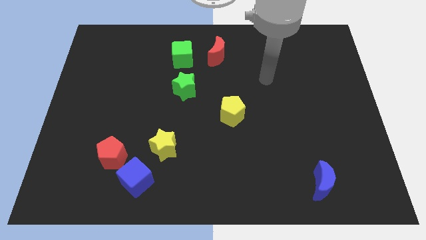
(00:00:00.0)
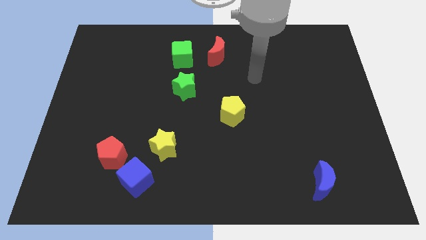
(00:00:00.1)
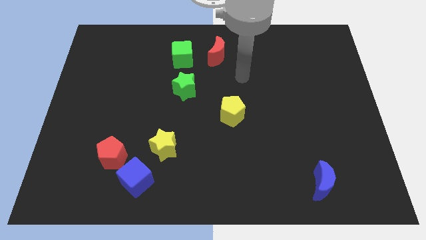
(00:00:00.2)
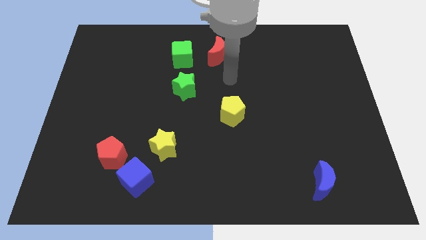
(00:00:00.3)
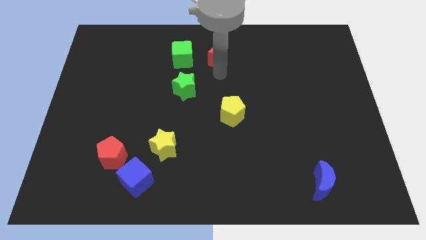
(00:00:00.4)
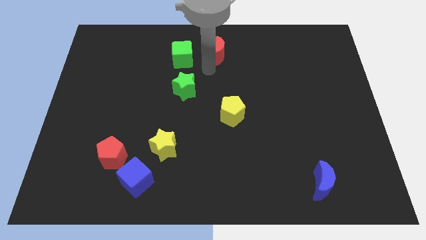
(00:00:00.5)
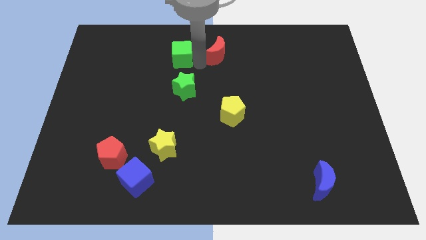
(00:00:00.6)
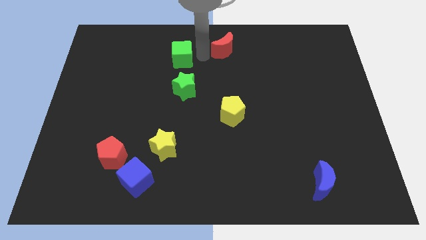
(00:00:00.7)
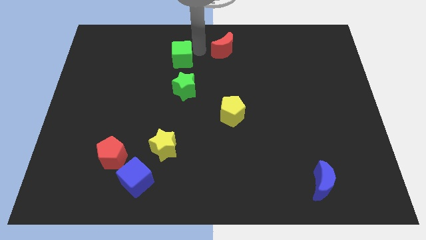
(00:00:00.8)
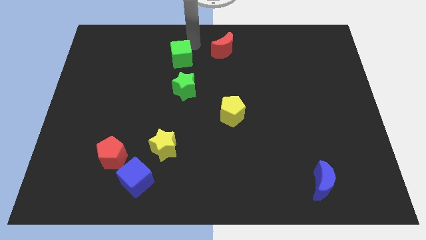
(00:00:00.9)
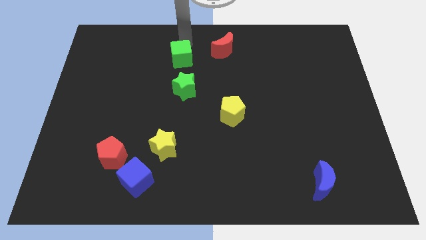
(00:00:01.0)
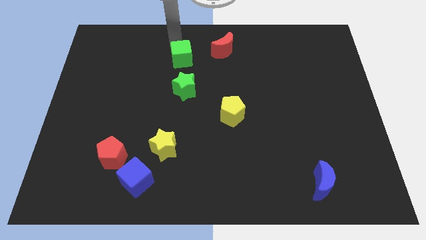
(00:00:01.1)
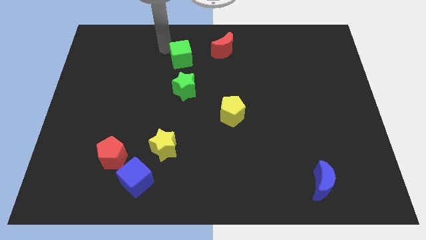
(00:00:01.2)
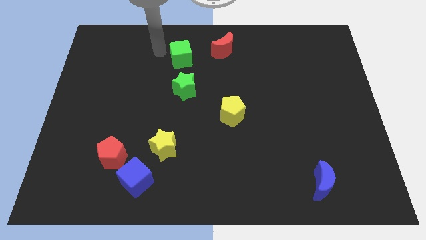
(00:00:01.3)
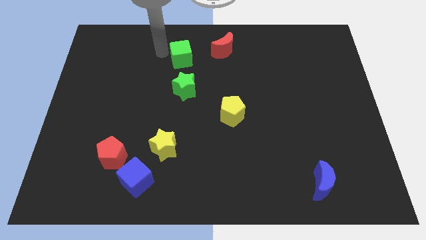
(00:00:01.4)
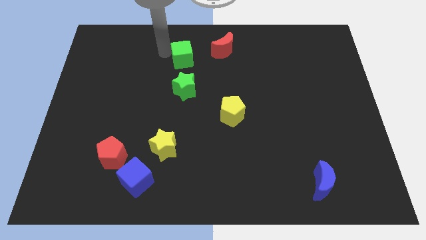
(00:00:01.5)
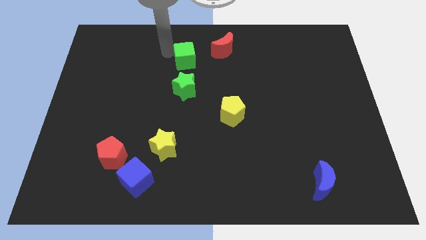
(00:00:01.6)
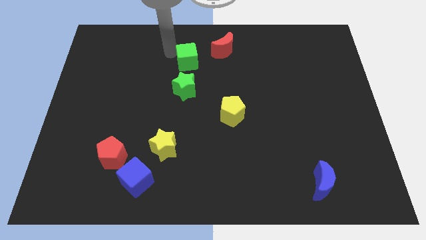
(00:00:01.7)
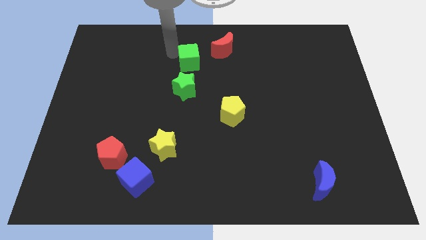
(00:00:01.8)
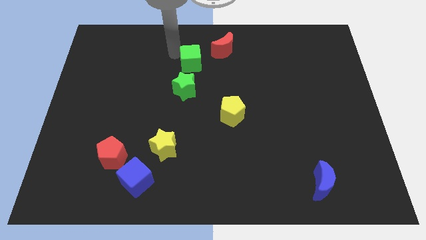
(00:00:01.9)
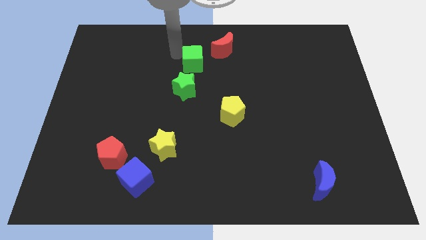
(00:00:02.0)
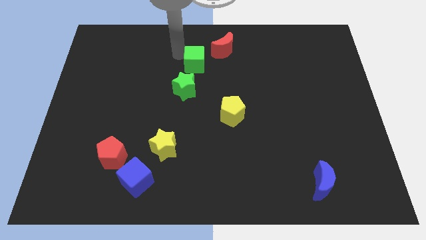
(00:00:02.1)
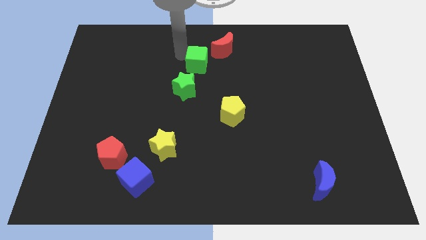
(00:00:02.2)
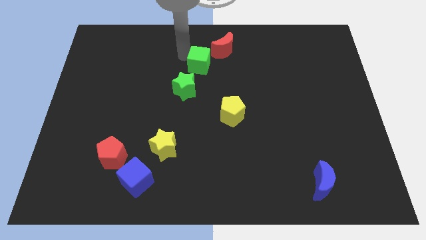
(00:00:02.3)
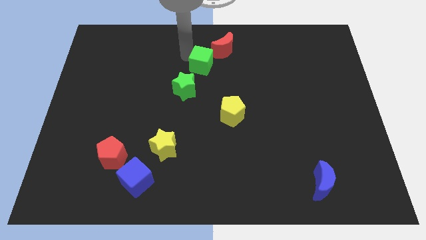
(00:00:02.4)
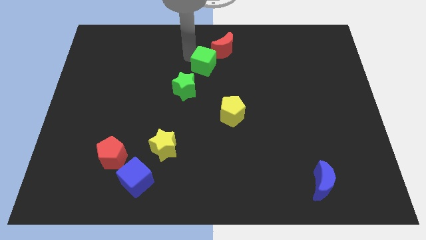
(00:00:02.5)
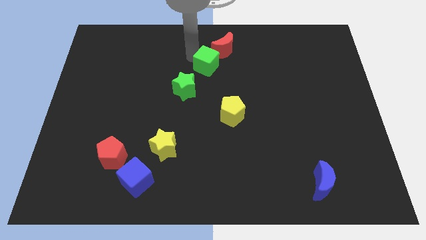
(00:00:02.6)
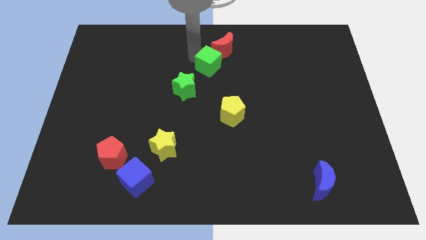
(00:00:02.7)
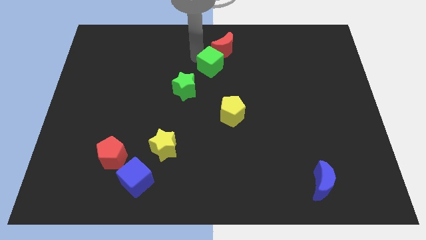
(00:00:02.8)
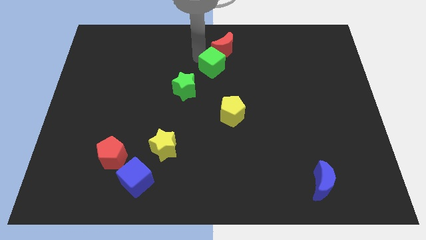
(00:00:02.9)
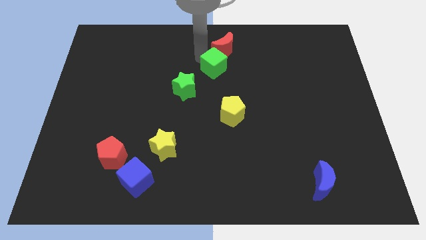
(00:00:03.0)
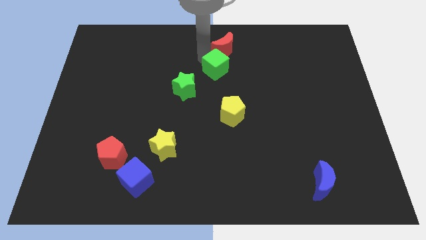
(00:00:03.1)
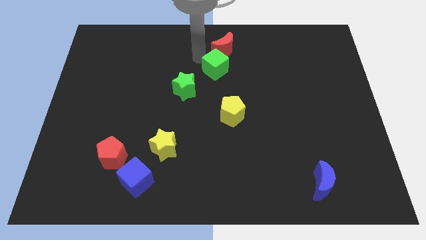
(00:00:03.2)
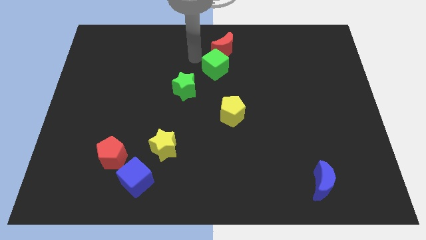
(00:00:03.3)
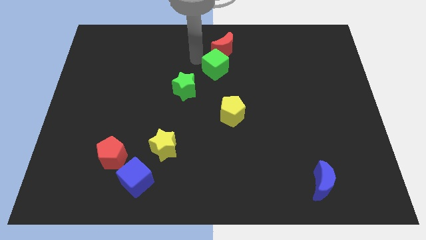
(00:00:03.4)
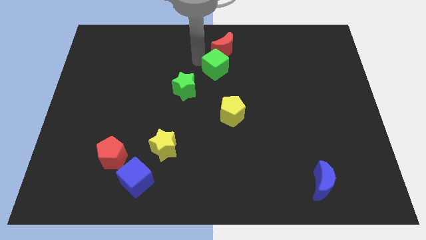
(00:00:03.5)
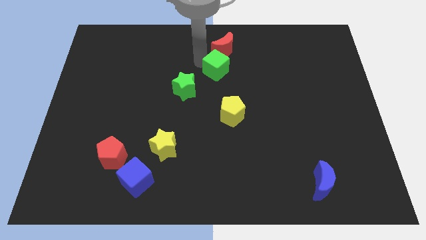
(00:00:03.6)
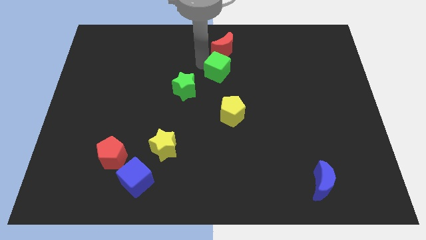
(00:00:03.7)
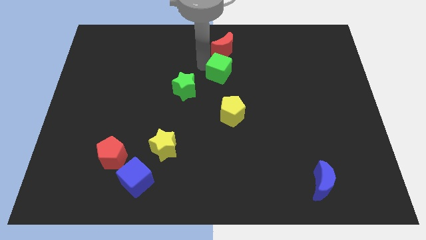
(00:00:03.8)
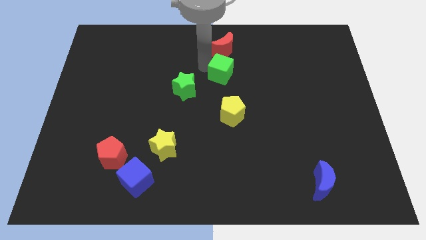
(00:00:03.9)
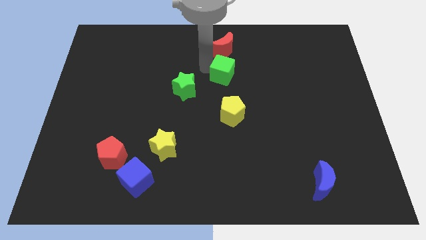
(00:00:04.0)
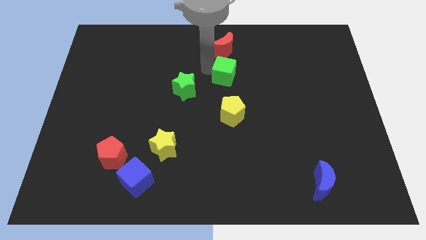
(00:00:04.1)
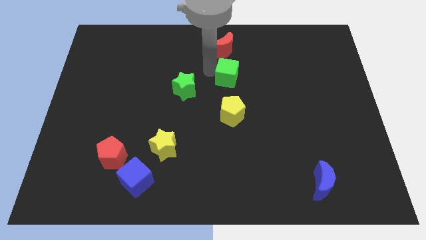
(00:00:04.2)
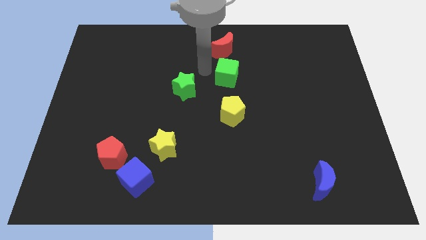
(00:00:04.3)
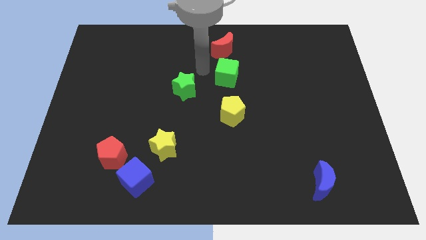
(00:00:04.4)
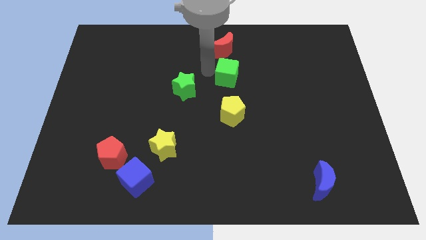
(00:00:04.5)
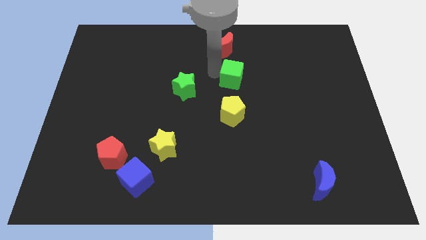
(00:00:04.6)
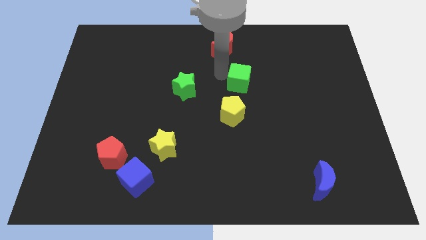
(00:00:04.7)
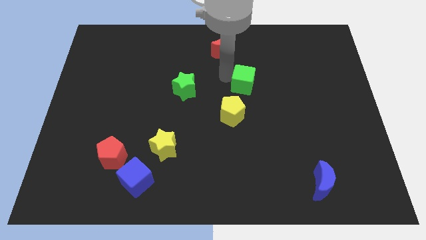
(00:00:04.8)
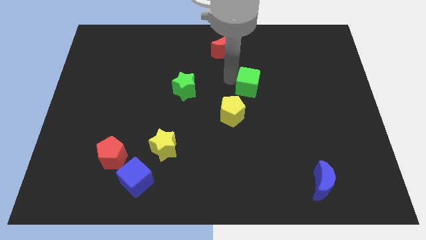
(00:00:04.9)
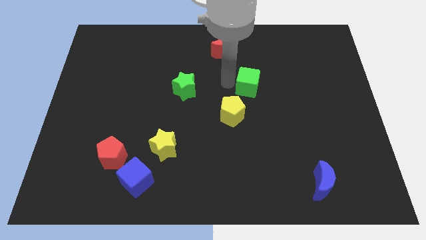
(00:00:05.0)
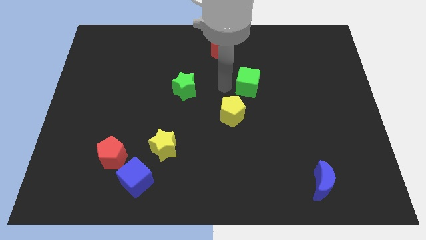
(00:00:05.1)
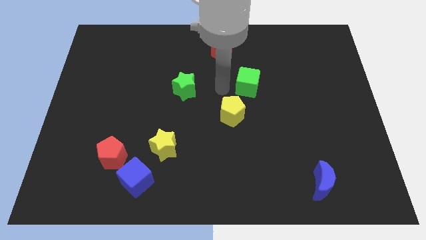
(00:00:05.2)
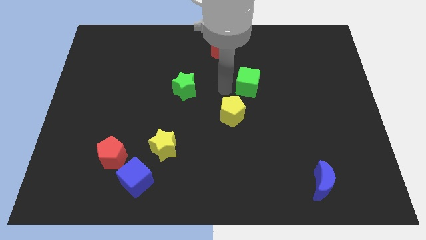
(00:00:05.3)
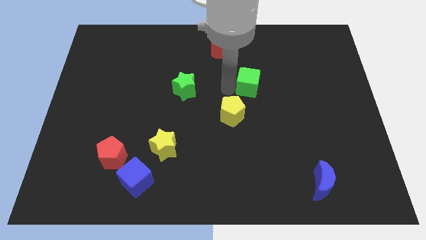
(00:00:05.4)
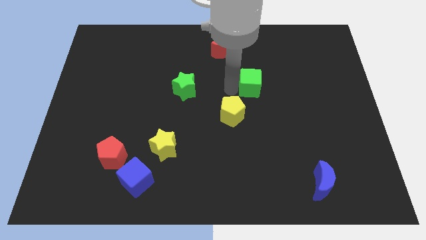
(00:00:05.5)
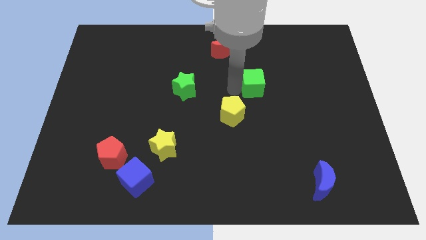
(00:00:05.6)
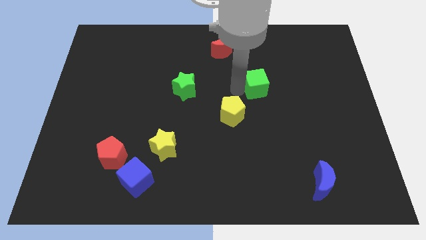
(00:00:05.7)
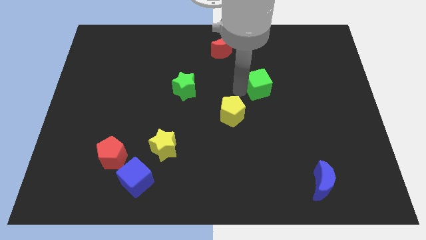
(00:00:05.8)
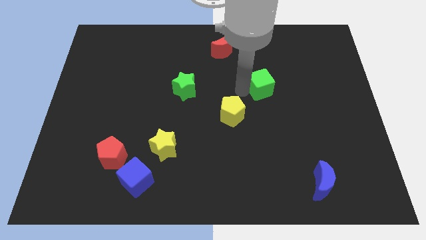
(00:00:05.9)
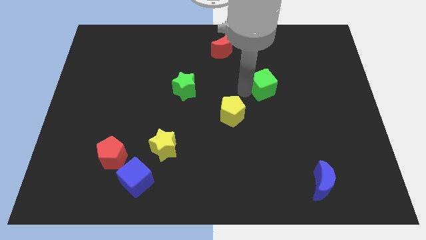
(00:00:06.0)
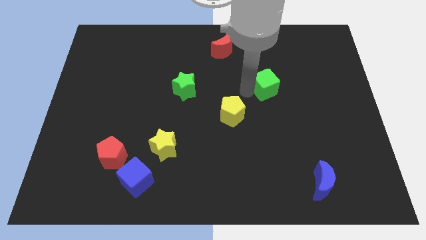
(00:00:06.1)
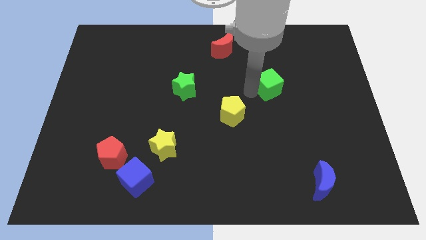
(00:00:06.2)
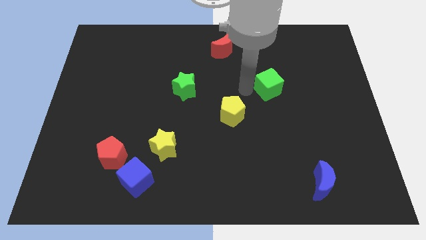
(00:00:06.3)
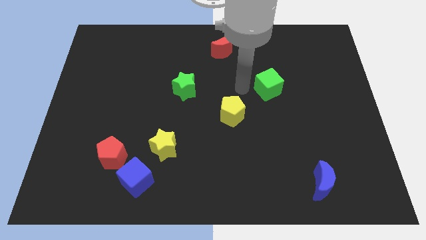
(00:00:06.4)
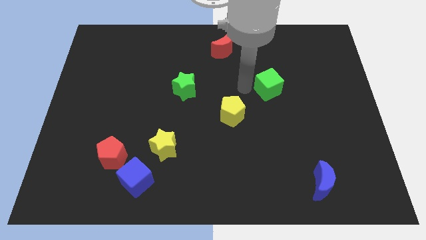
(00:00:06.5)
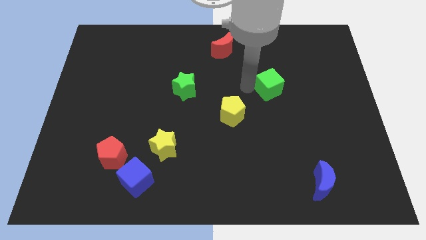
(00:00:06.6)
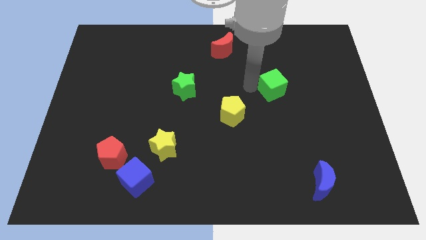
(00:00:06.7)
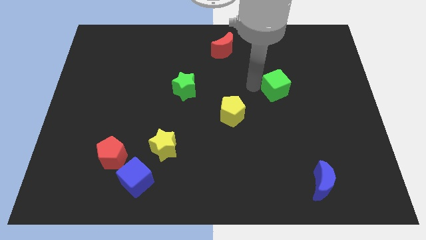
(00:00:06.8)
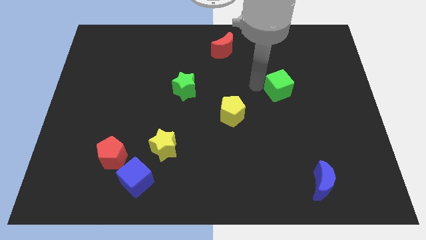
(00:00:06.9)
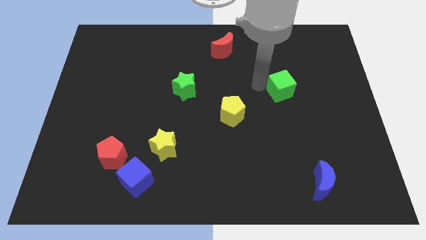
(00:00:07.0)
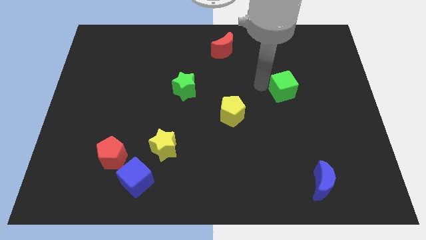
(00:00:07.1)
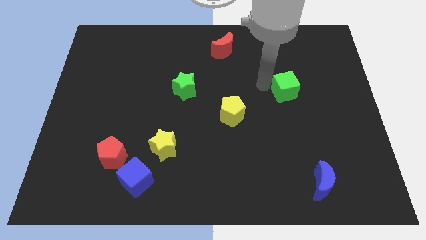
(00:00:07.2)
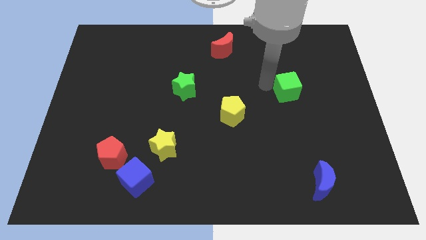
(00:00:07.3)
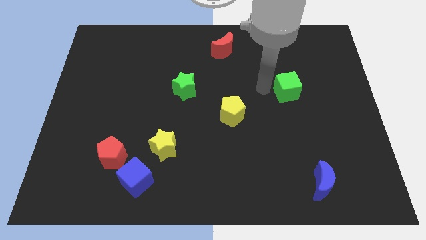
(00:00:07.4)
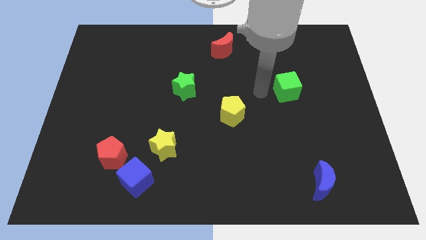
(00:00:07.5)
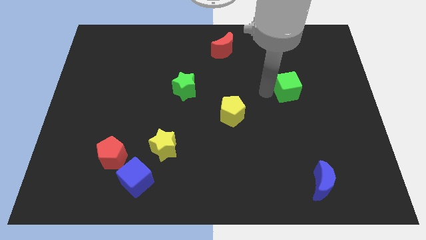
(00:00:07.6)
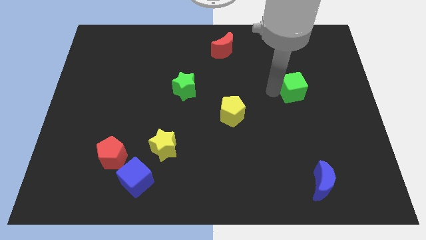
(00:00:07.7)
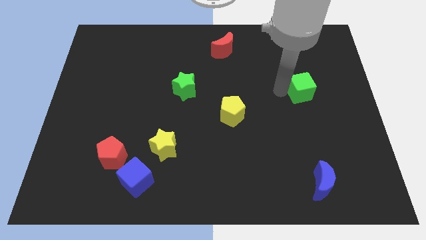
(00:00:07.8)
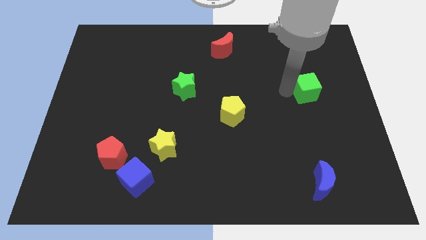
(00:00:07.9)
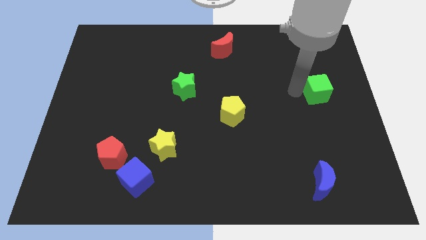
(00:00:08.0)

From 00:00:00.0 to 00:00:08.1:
push the green cube to the center right
